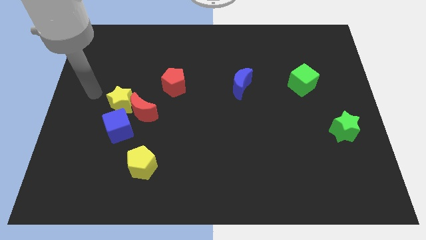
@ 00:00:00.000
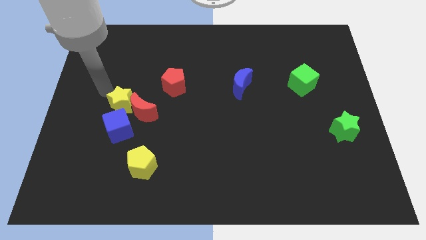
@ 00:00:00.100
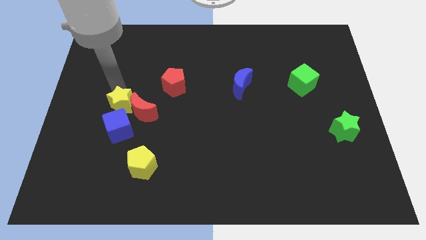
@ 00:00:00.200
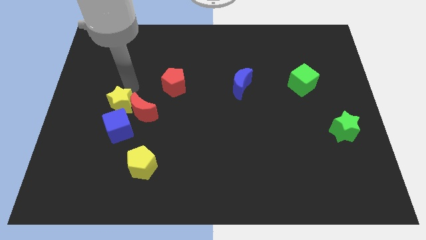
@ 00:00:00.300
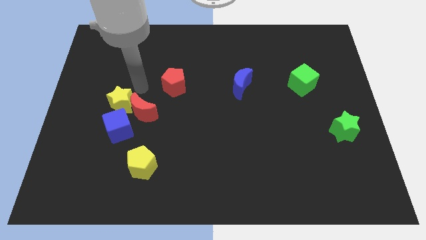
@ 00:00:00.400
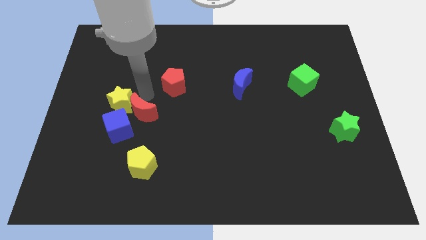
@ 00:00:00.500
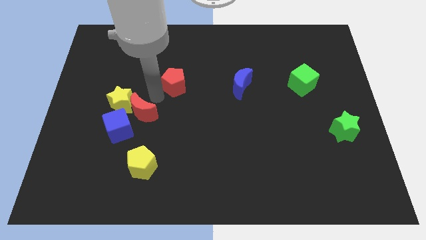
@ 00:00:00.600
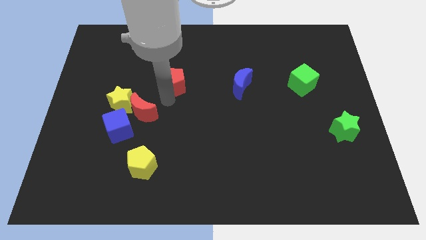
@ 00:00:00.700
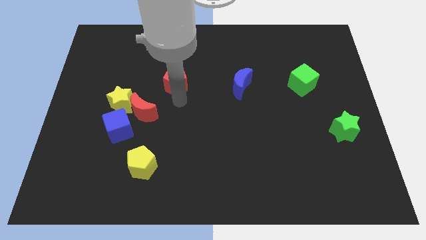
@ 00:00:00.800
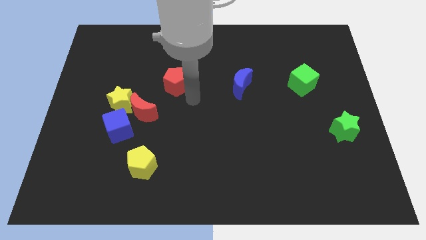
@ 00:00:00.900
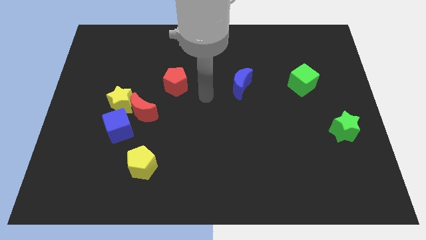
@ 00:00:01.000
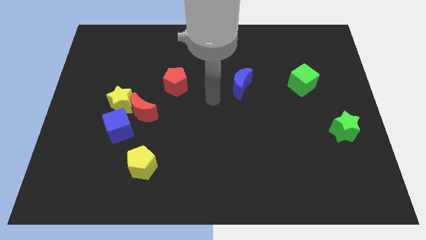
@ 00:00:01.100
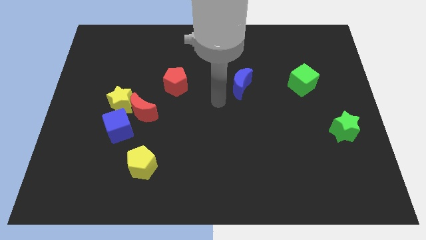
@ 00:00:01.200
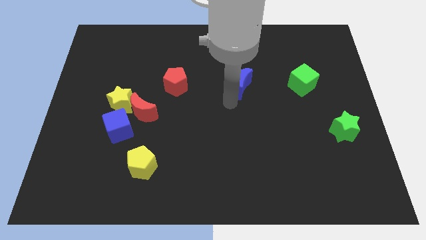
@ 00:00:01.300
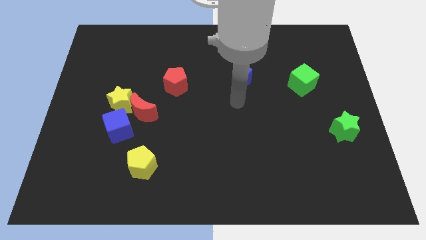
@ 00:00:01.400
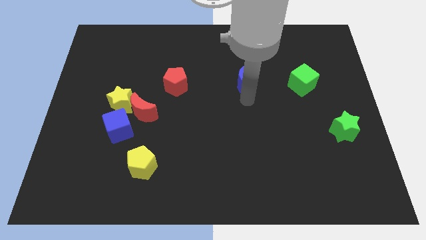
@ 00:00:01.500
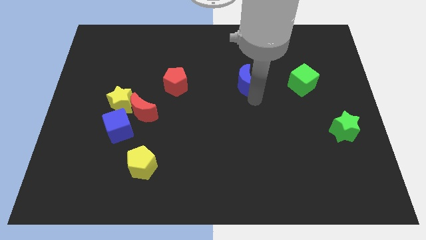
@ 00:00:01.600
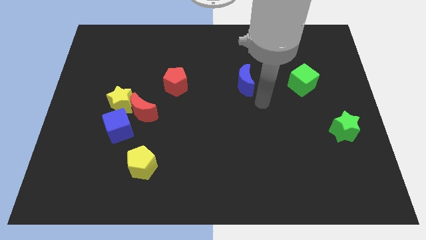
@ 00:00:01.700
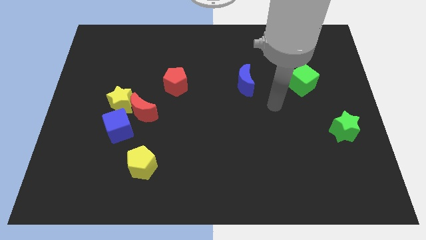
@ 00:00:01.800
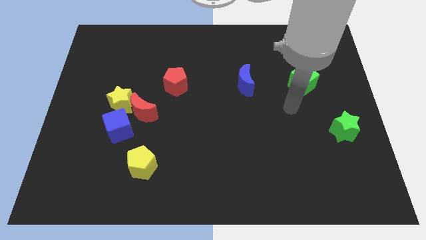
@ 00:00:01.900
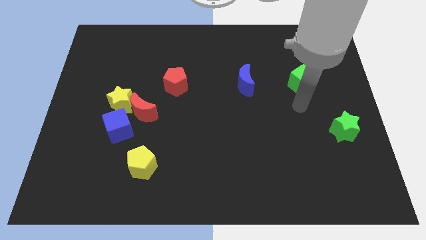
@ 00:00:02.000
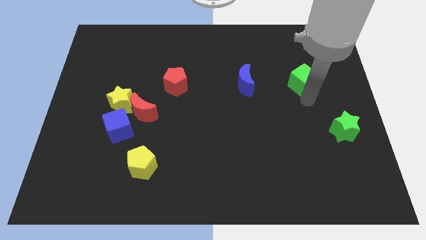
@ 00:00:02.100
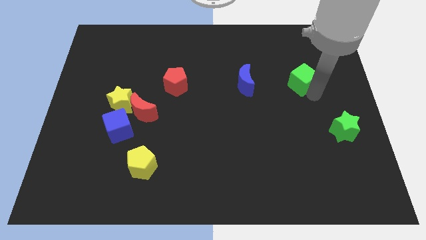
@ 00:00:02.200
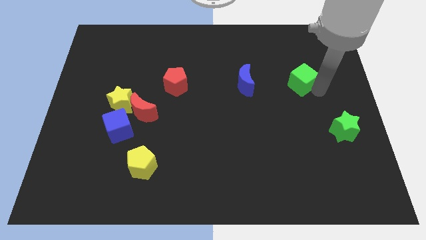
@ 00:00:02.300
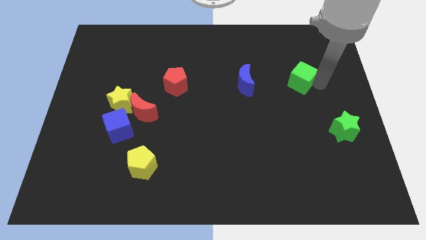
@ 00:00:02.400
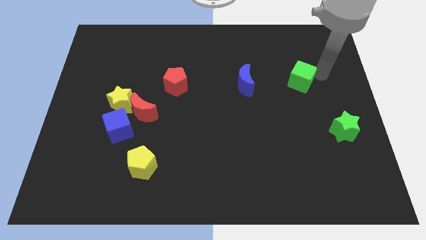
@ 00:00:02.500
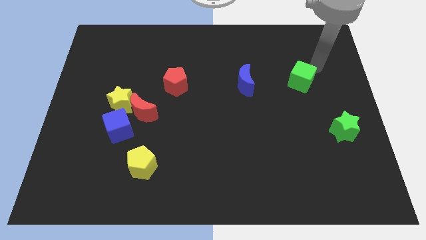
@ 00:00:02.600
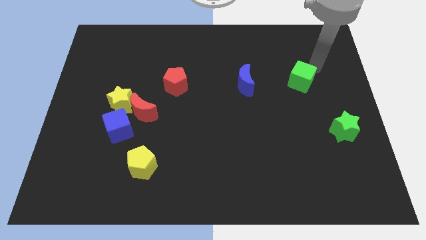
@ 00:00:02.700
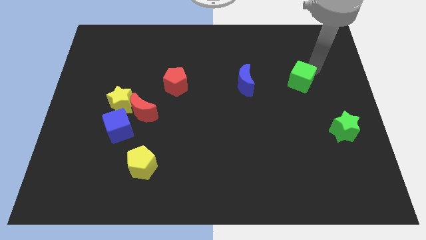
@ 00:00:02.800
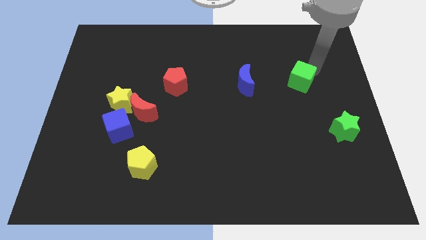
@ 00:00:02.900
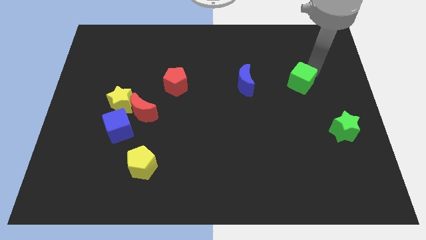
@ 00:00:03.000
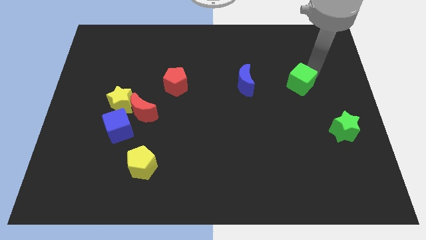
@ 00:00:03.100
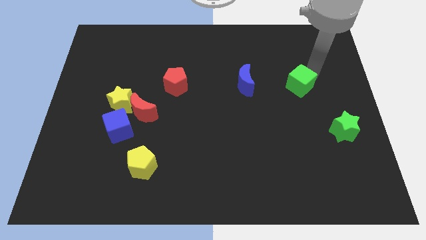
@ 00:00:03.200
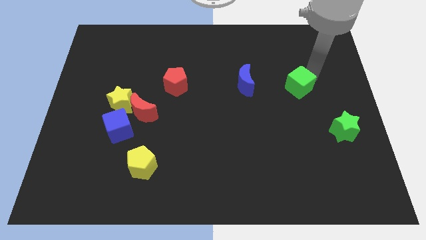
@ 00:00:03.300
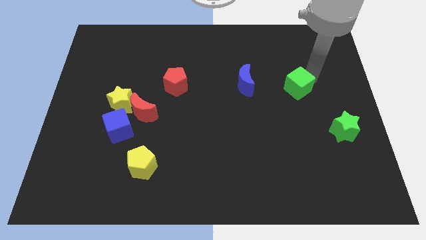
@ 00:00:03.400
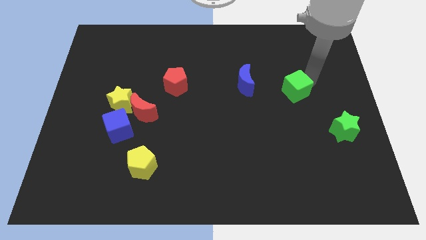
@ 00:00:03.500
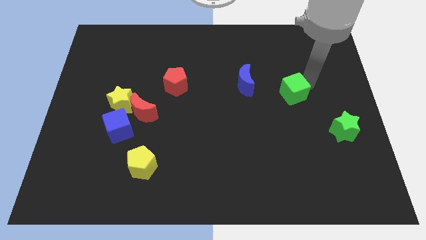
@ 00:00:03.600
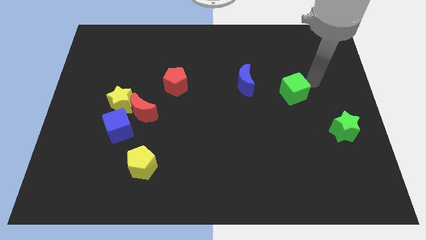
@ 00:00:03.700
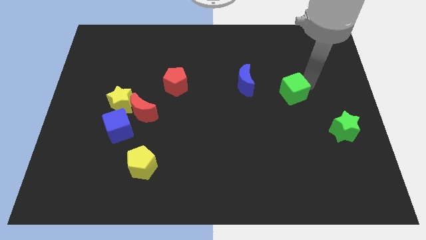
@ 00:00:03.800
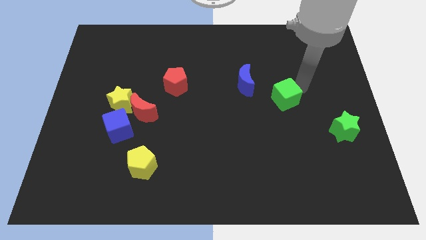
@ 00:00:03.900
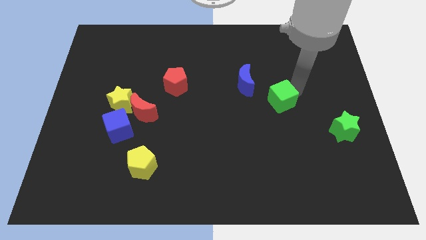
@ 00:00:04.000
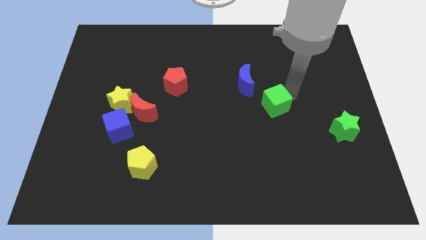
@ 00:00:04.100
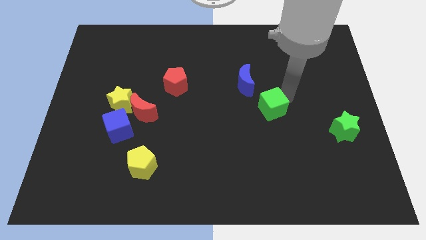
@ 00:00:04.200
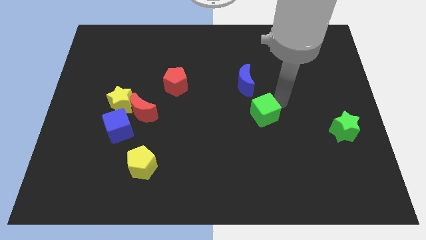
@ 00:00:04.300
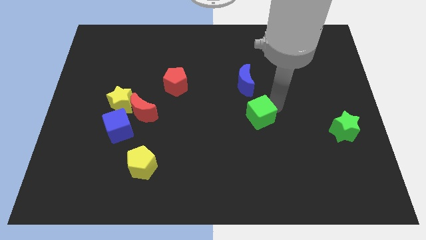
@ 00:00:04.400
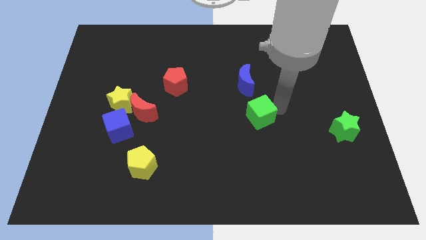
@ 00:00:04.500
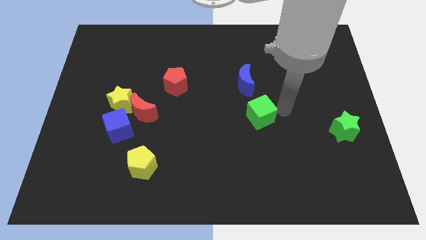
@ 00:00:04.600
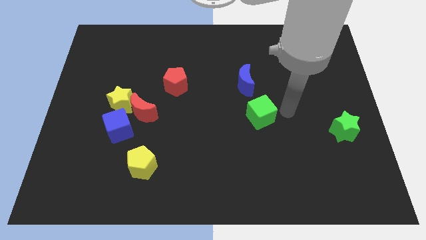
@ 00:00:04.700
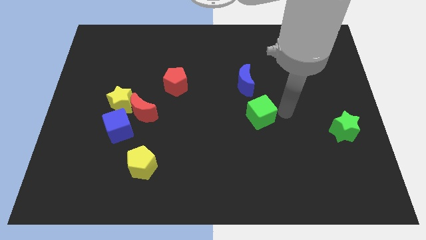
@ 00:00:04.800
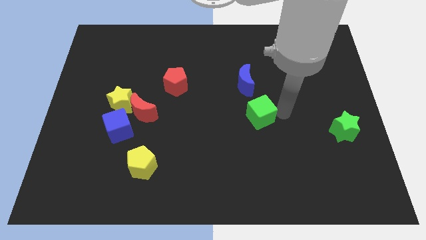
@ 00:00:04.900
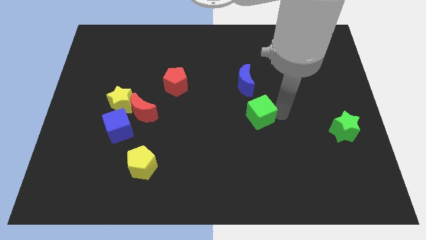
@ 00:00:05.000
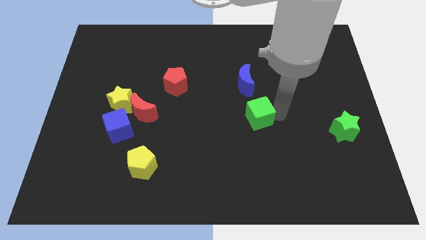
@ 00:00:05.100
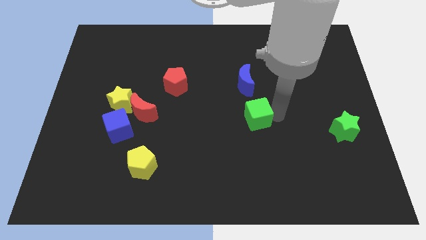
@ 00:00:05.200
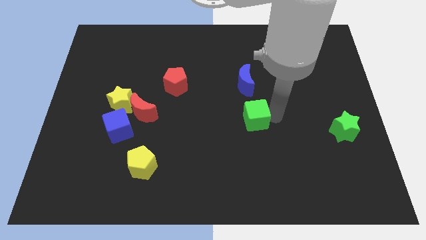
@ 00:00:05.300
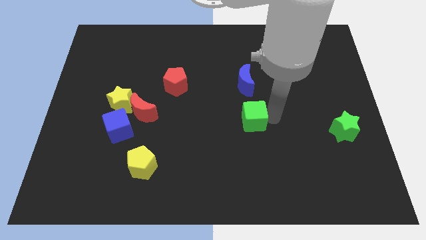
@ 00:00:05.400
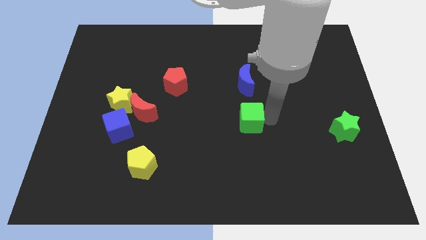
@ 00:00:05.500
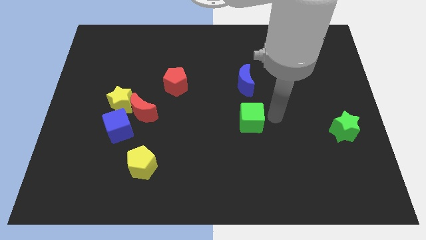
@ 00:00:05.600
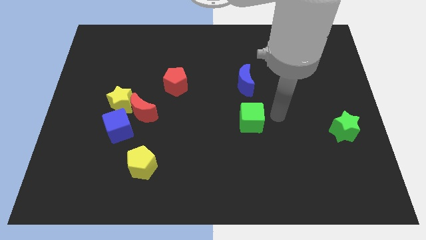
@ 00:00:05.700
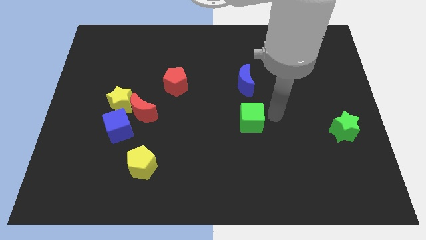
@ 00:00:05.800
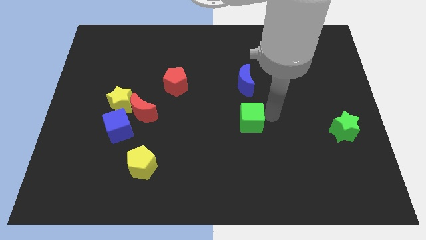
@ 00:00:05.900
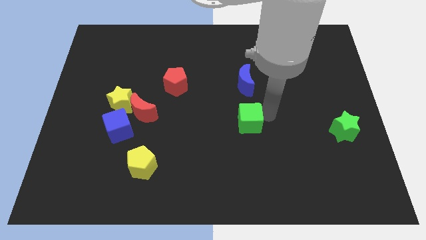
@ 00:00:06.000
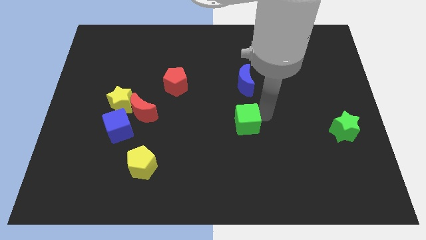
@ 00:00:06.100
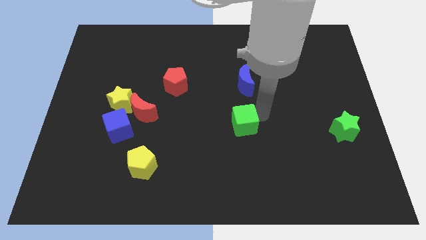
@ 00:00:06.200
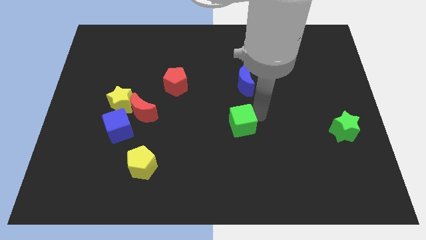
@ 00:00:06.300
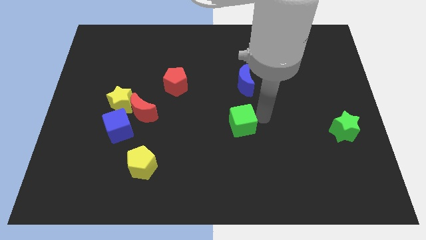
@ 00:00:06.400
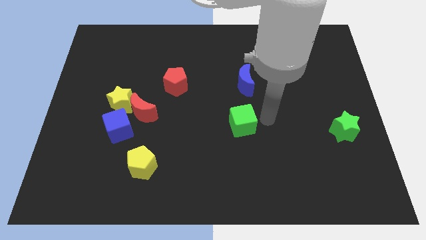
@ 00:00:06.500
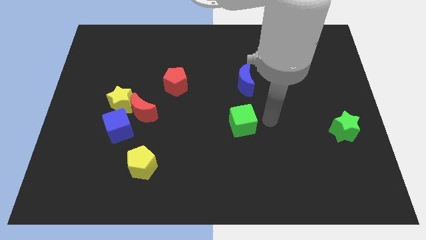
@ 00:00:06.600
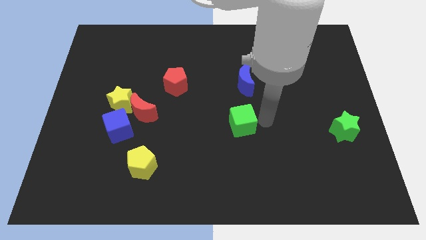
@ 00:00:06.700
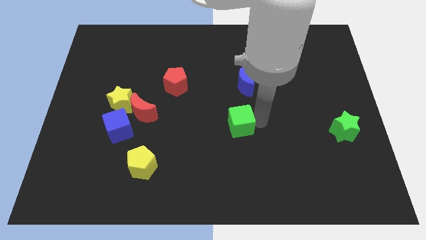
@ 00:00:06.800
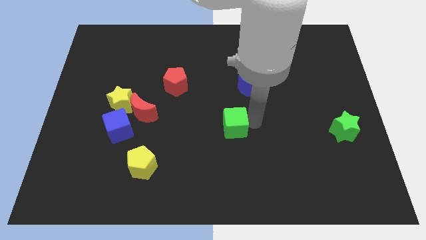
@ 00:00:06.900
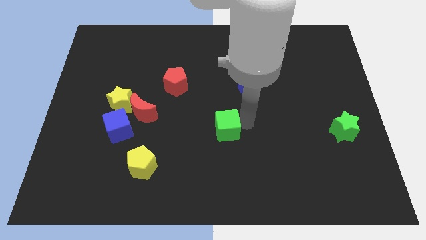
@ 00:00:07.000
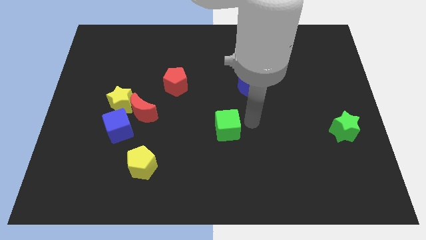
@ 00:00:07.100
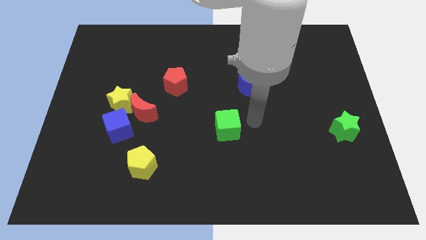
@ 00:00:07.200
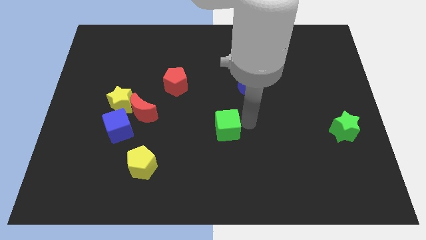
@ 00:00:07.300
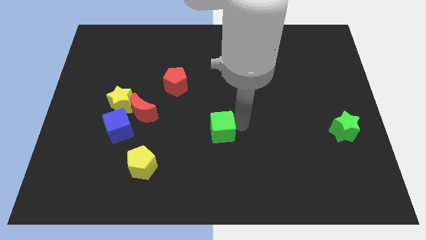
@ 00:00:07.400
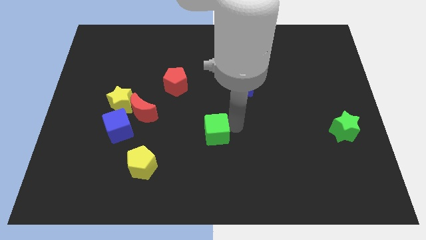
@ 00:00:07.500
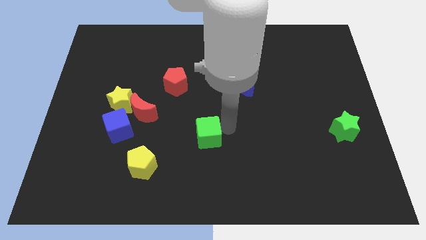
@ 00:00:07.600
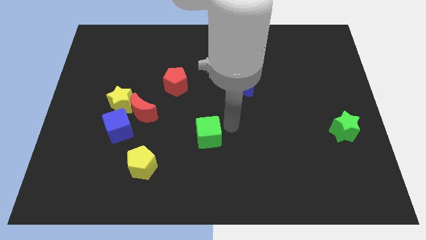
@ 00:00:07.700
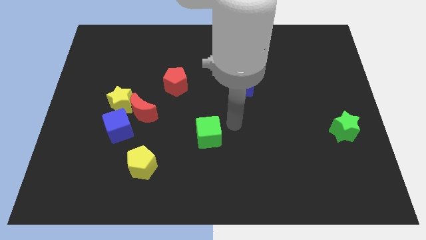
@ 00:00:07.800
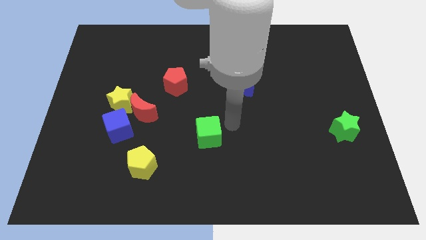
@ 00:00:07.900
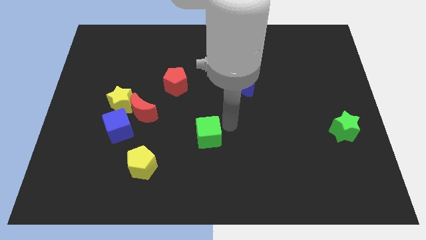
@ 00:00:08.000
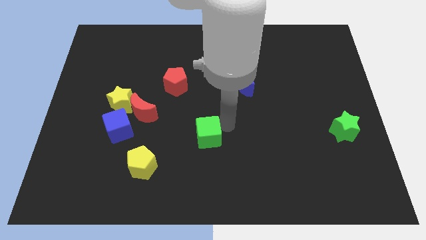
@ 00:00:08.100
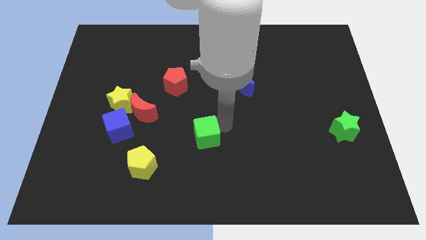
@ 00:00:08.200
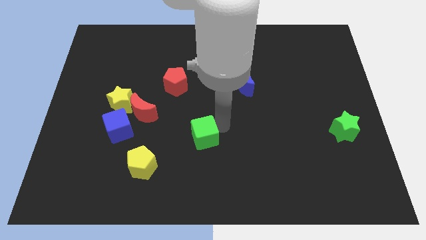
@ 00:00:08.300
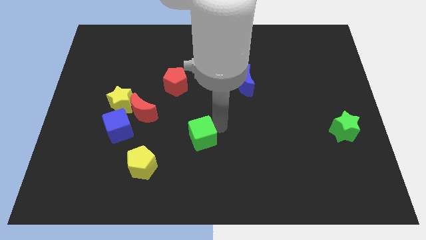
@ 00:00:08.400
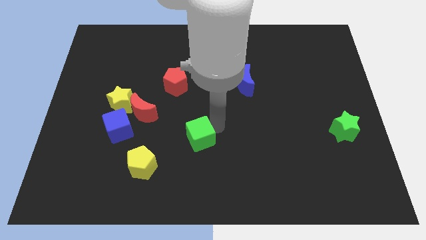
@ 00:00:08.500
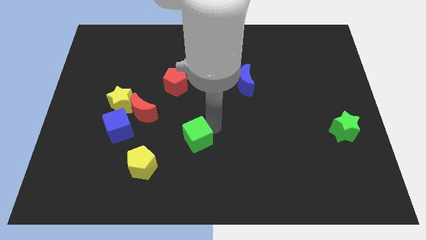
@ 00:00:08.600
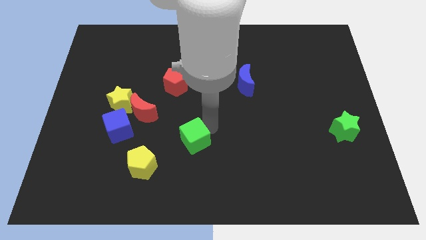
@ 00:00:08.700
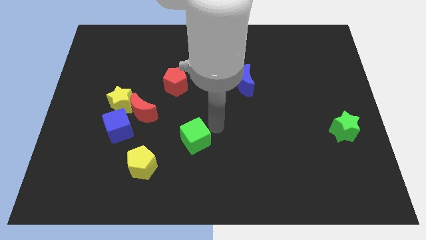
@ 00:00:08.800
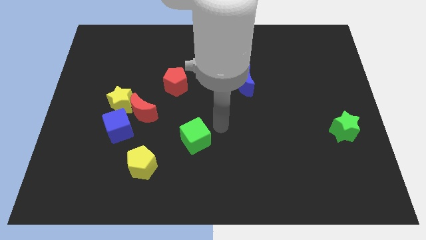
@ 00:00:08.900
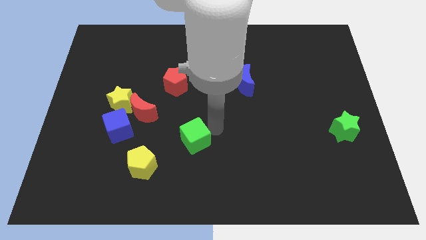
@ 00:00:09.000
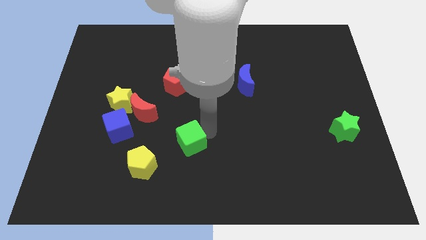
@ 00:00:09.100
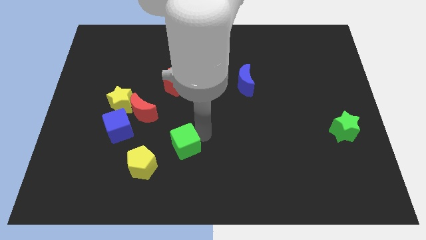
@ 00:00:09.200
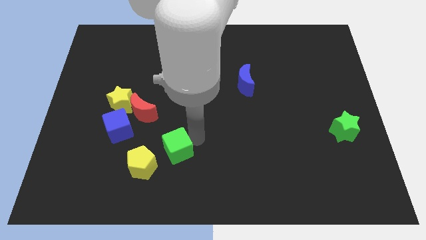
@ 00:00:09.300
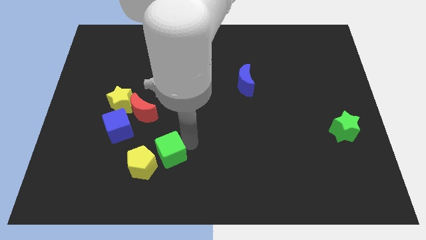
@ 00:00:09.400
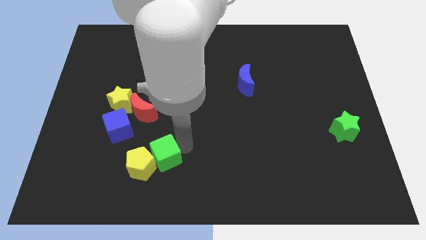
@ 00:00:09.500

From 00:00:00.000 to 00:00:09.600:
put the green cube to the yellow pentagon
